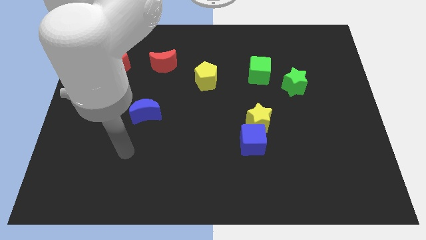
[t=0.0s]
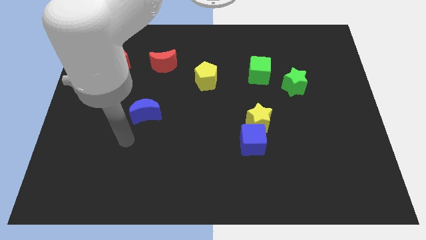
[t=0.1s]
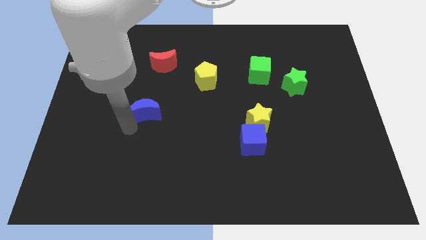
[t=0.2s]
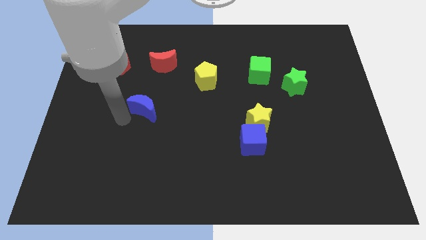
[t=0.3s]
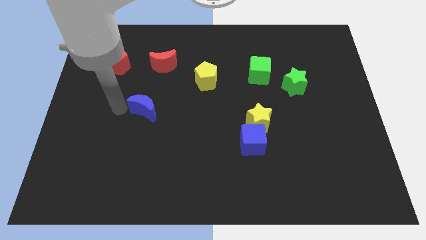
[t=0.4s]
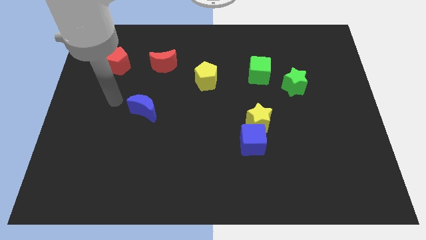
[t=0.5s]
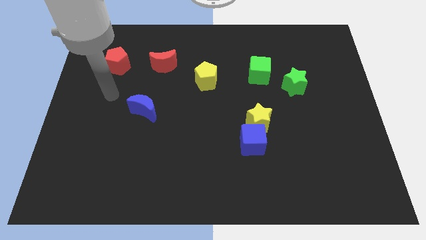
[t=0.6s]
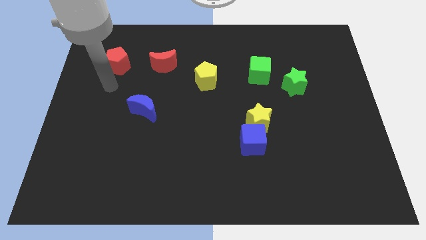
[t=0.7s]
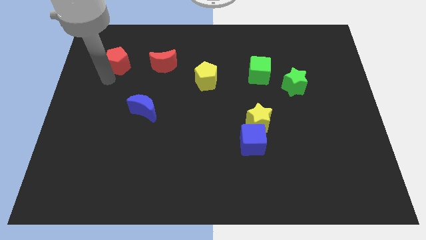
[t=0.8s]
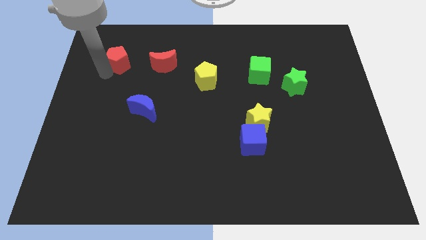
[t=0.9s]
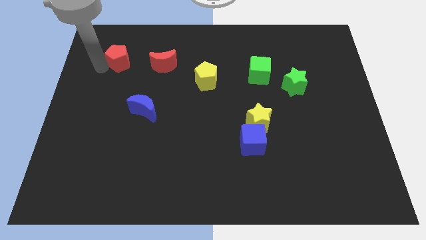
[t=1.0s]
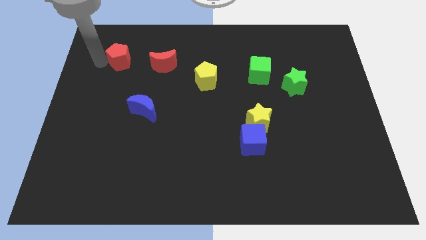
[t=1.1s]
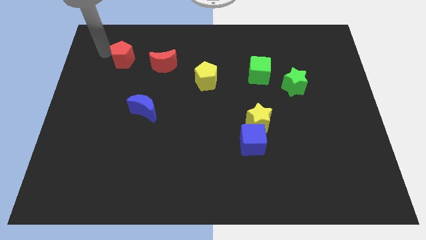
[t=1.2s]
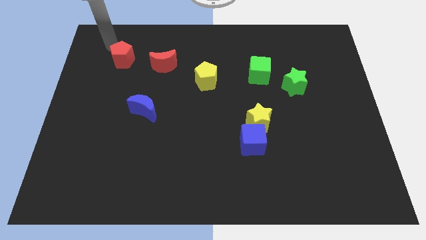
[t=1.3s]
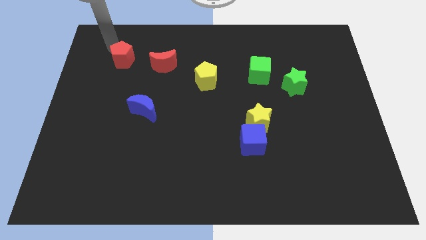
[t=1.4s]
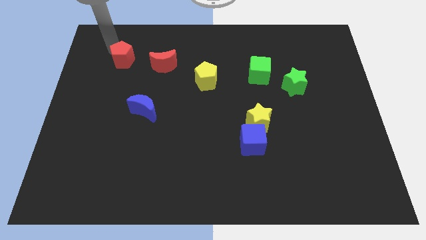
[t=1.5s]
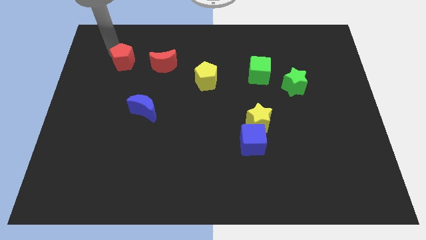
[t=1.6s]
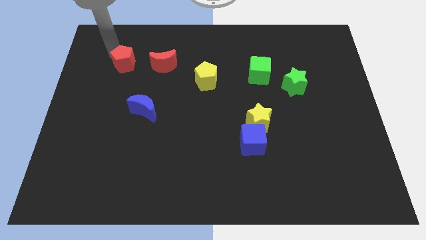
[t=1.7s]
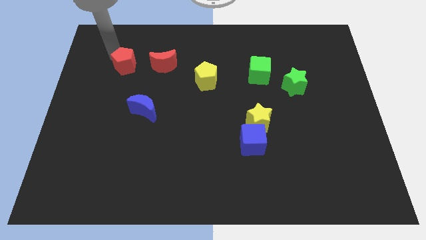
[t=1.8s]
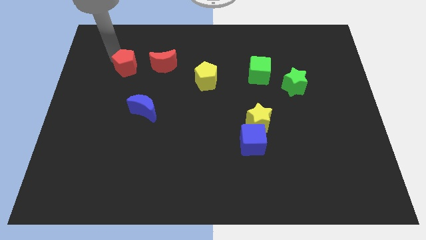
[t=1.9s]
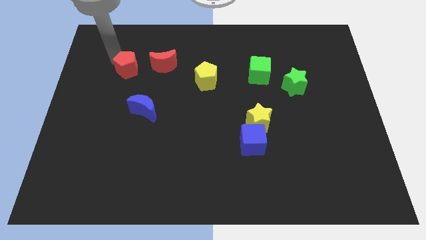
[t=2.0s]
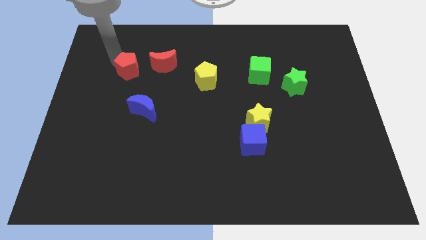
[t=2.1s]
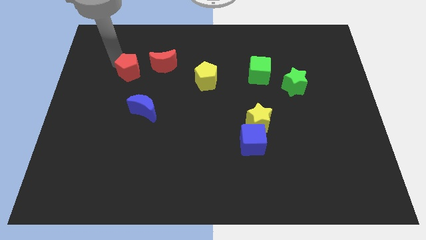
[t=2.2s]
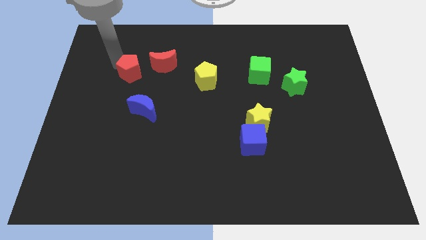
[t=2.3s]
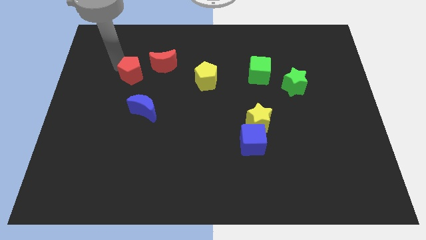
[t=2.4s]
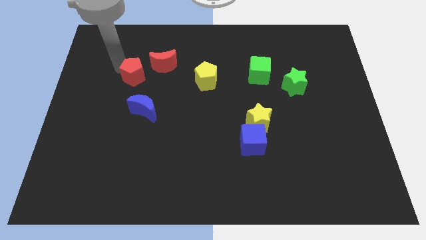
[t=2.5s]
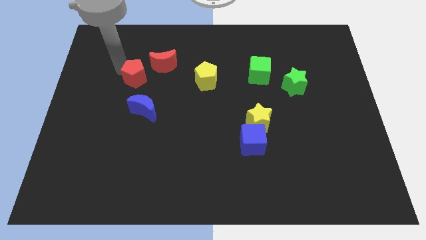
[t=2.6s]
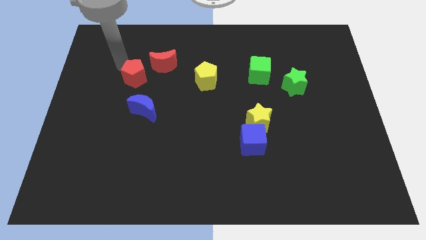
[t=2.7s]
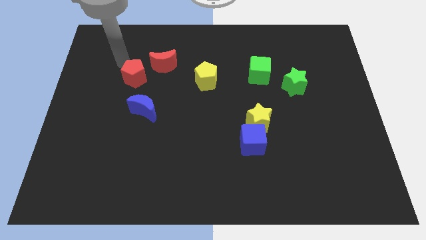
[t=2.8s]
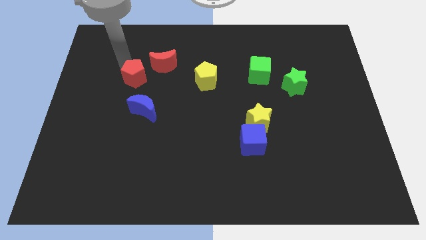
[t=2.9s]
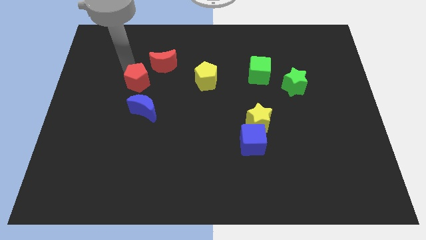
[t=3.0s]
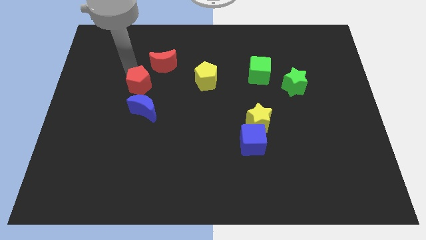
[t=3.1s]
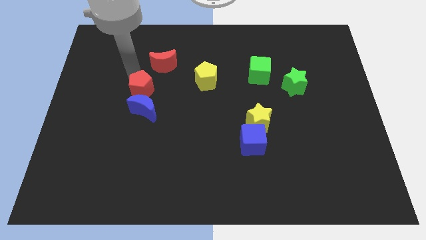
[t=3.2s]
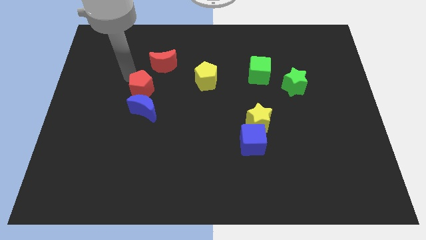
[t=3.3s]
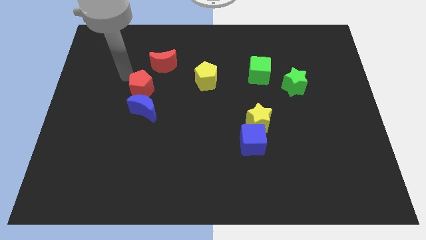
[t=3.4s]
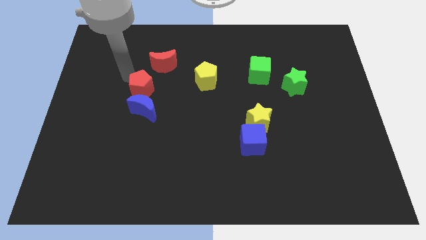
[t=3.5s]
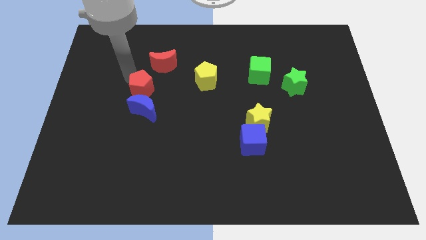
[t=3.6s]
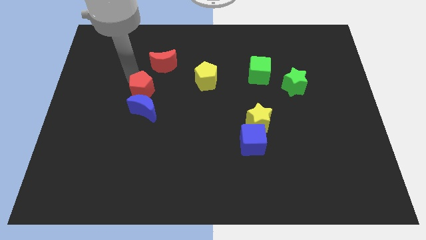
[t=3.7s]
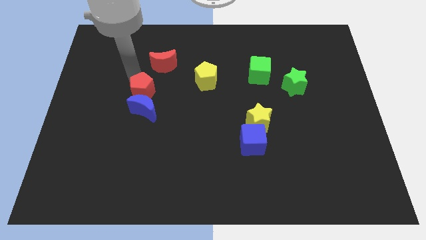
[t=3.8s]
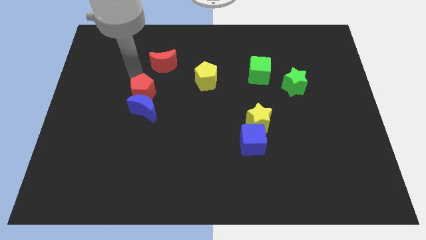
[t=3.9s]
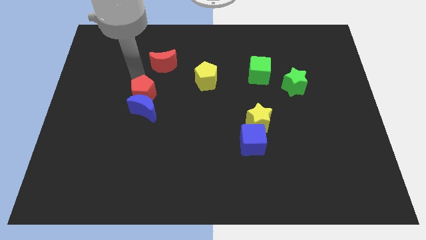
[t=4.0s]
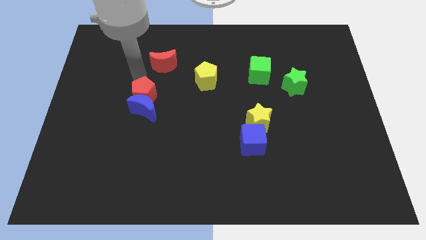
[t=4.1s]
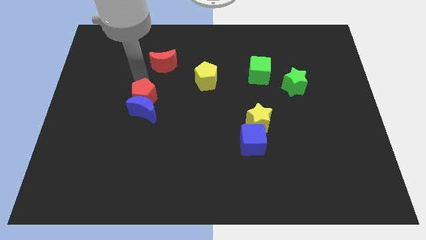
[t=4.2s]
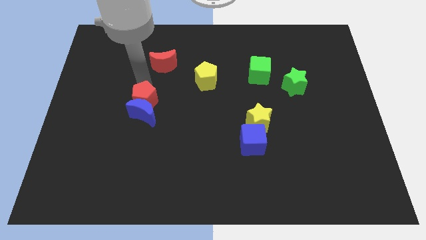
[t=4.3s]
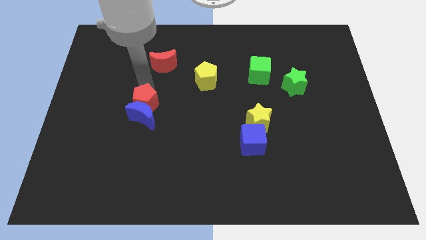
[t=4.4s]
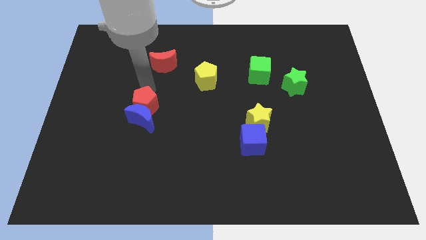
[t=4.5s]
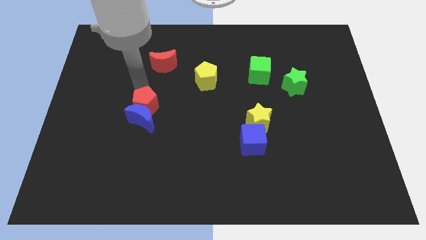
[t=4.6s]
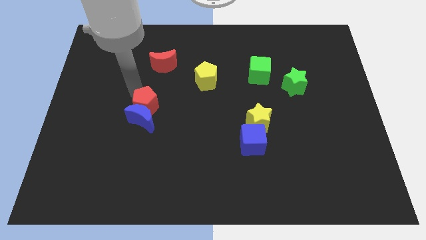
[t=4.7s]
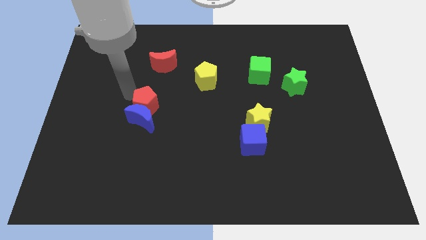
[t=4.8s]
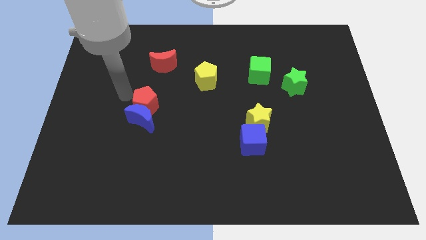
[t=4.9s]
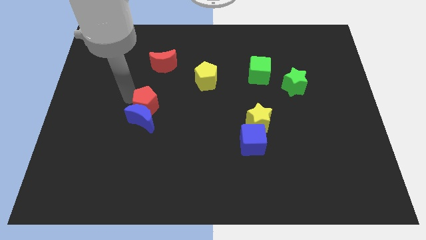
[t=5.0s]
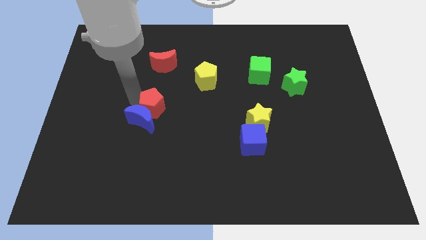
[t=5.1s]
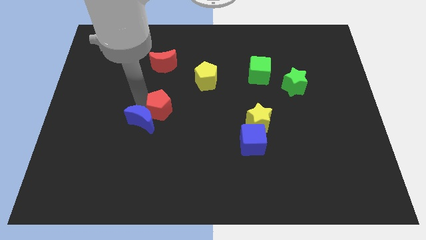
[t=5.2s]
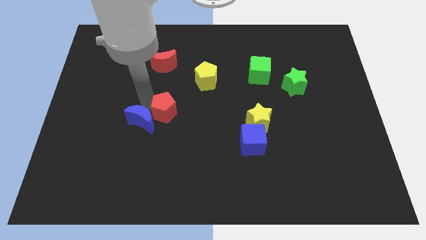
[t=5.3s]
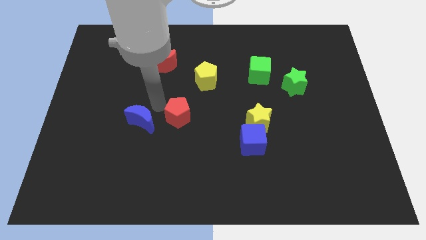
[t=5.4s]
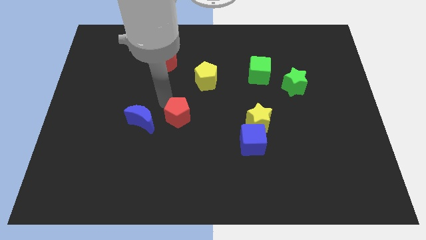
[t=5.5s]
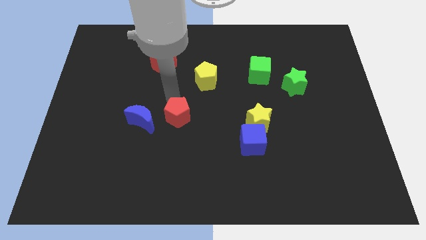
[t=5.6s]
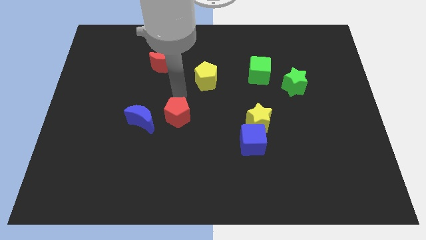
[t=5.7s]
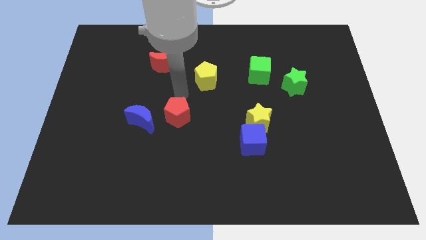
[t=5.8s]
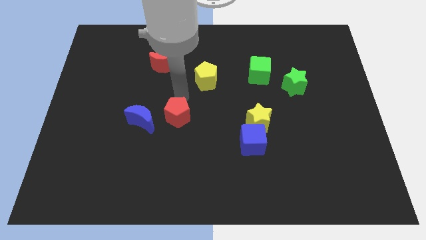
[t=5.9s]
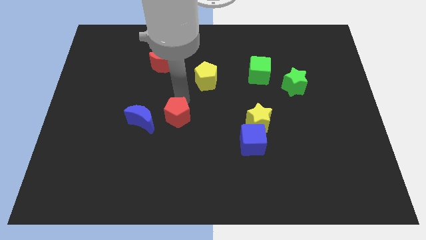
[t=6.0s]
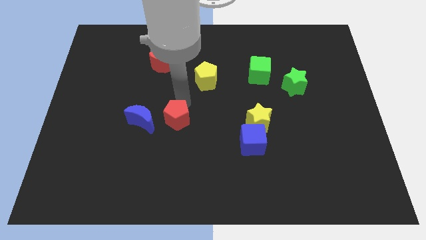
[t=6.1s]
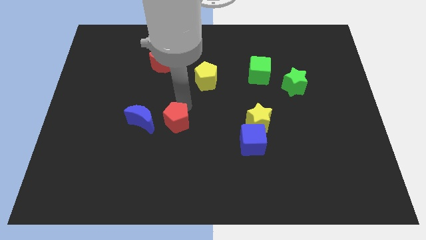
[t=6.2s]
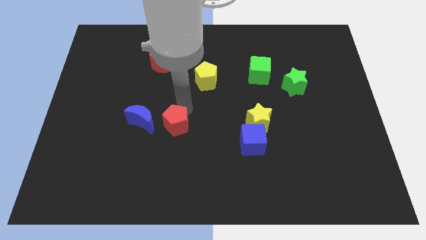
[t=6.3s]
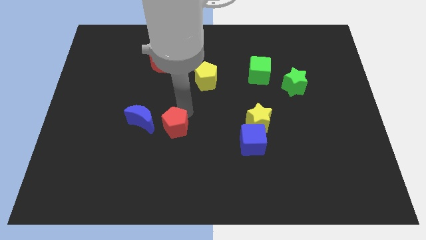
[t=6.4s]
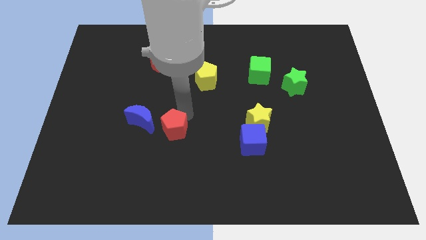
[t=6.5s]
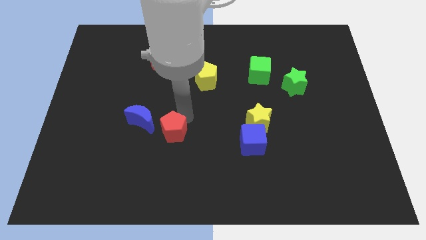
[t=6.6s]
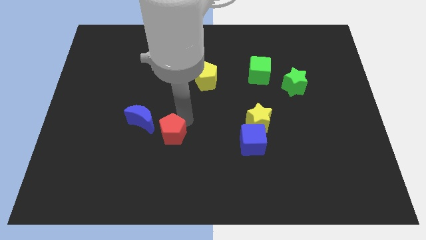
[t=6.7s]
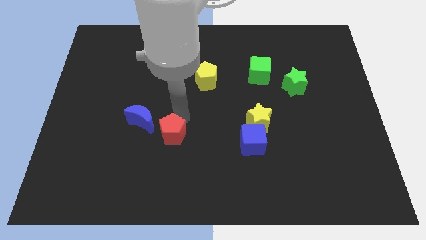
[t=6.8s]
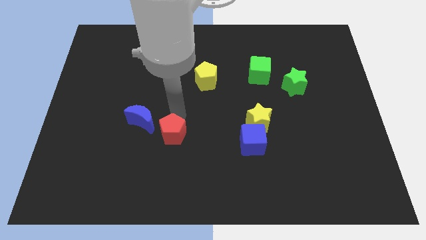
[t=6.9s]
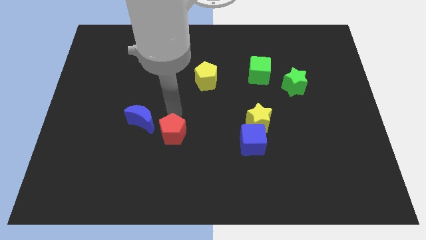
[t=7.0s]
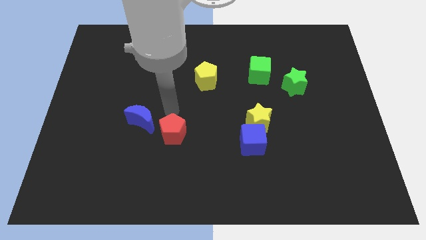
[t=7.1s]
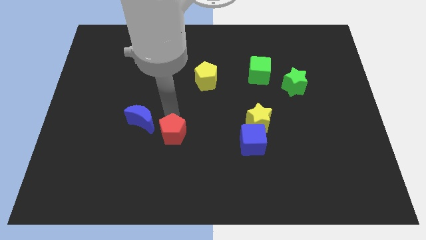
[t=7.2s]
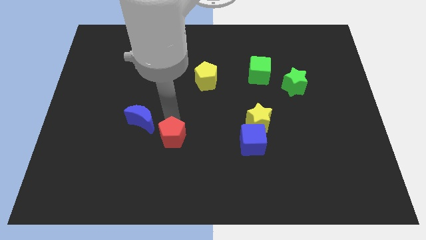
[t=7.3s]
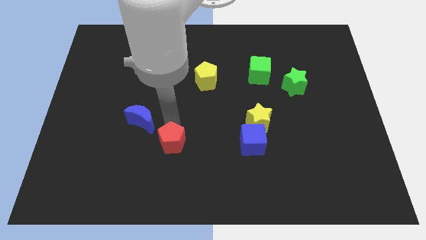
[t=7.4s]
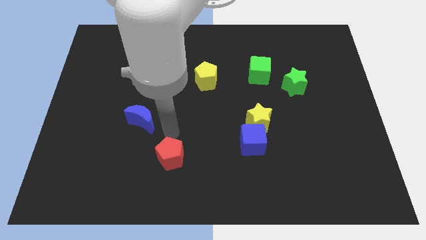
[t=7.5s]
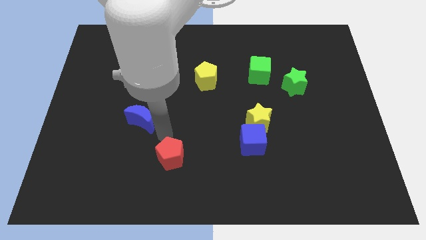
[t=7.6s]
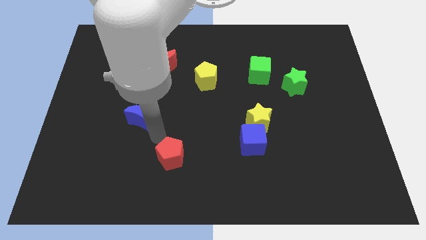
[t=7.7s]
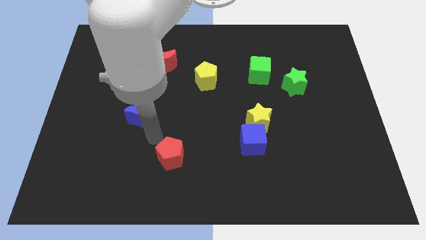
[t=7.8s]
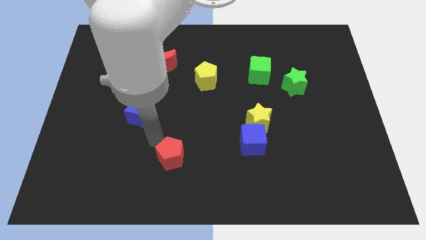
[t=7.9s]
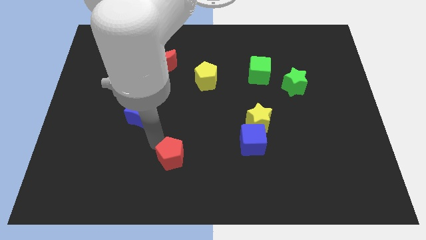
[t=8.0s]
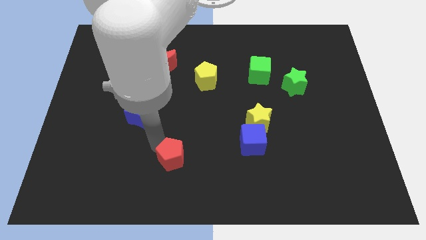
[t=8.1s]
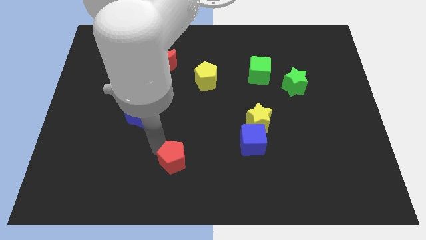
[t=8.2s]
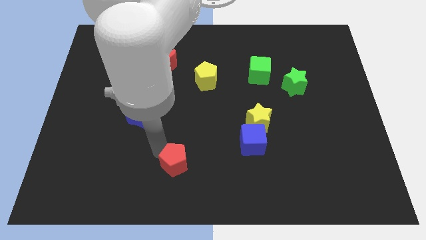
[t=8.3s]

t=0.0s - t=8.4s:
slide the red pentagon to the bottom
